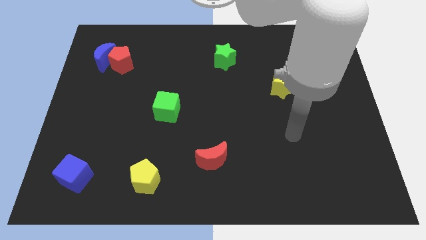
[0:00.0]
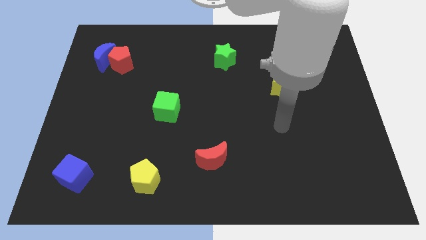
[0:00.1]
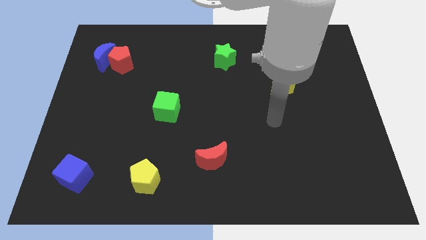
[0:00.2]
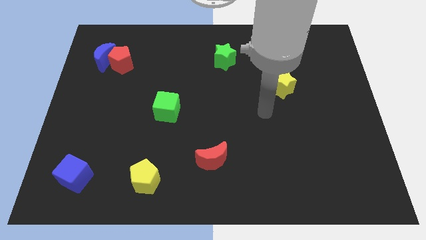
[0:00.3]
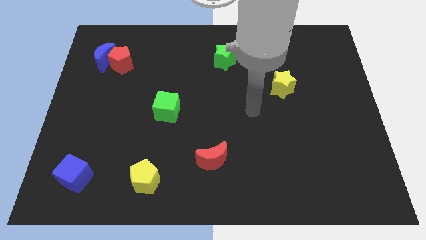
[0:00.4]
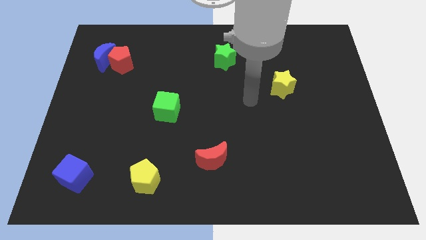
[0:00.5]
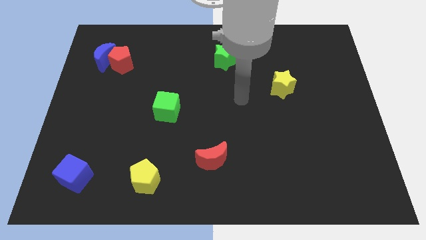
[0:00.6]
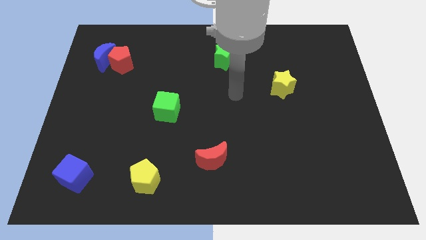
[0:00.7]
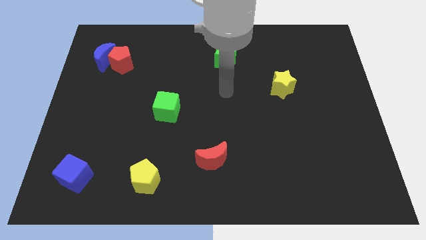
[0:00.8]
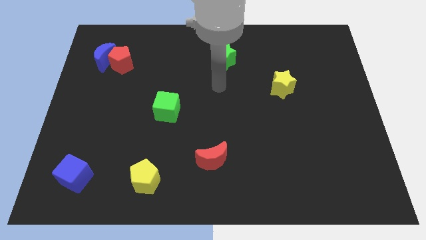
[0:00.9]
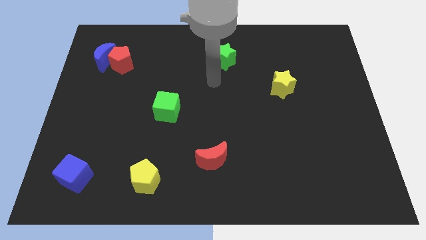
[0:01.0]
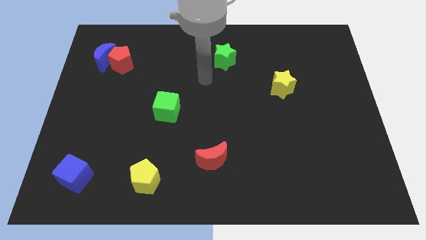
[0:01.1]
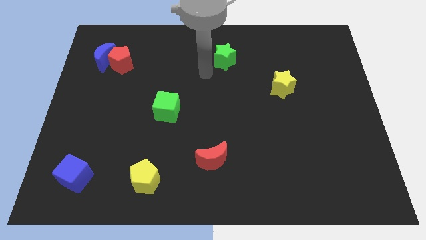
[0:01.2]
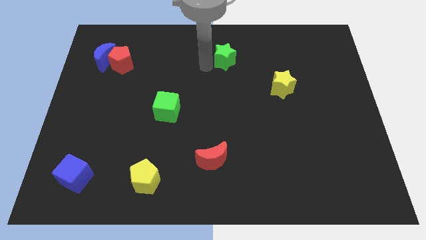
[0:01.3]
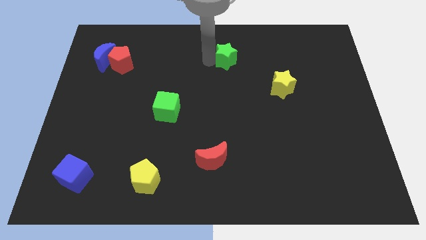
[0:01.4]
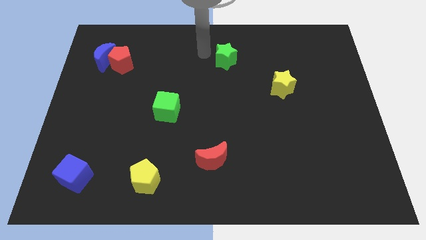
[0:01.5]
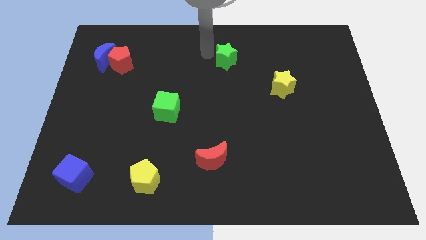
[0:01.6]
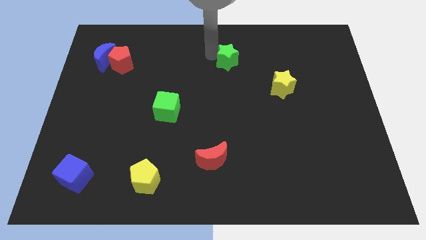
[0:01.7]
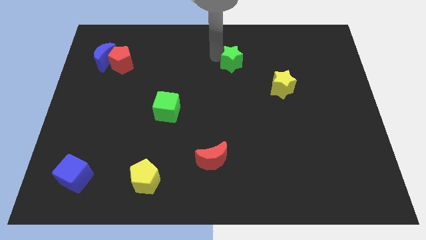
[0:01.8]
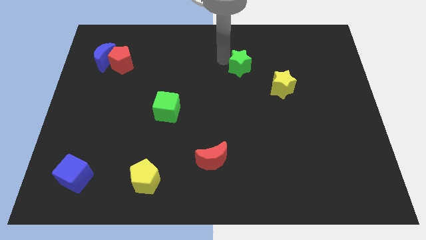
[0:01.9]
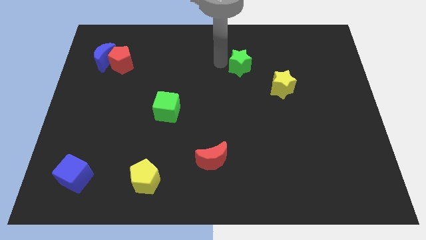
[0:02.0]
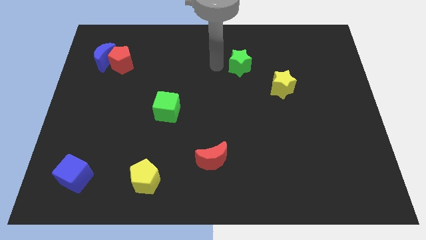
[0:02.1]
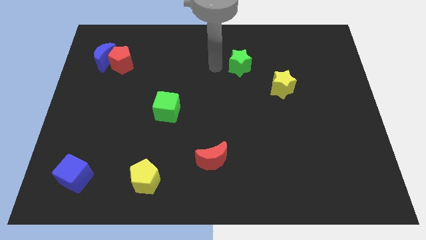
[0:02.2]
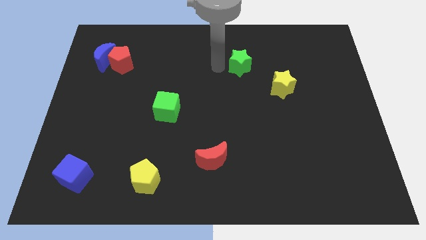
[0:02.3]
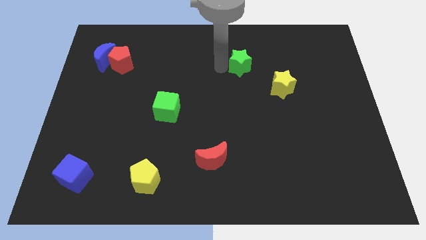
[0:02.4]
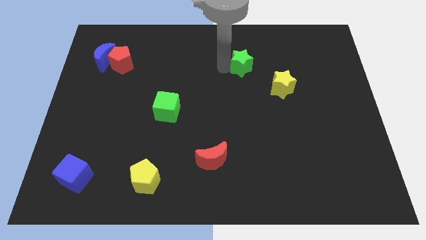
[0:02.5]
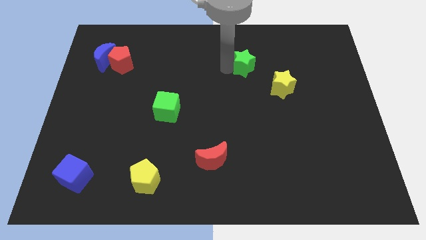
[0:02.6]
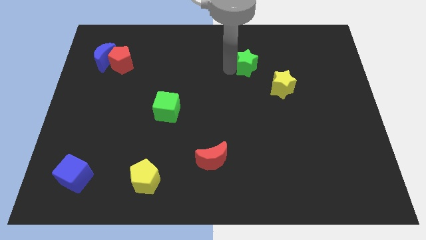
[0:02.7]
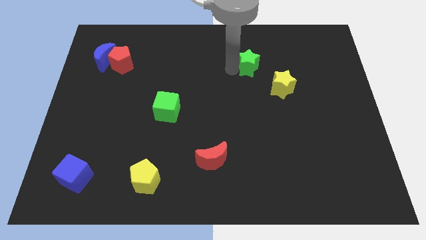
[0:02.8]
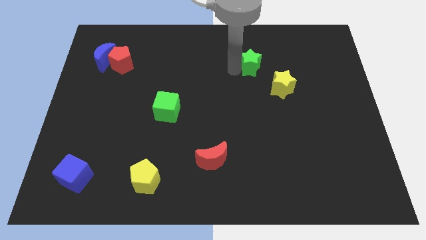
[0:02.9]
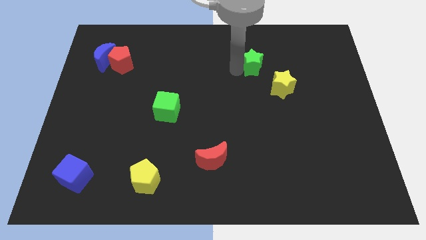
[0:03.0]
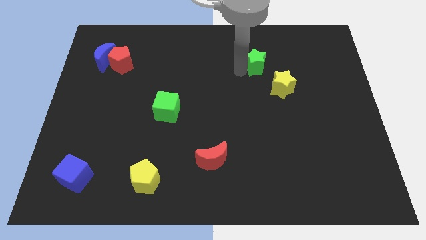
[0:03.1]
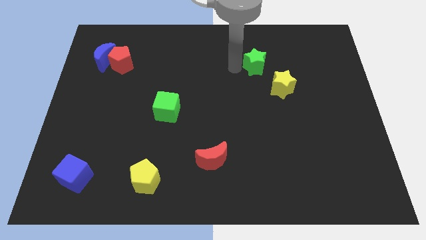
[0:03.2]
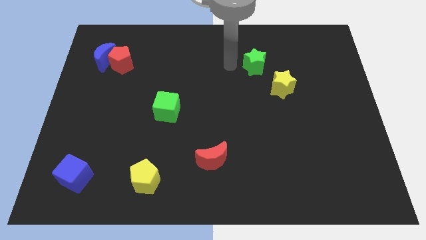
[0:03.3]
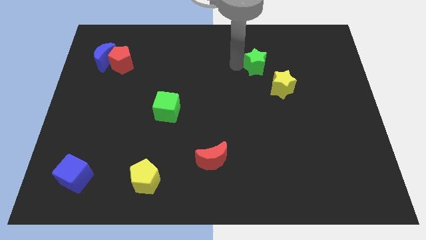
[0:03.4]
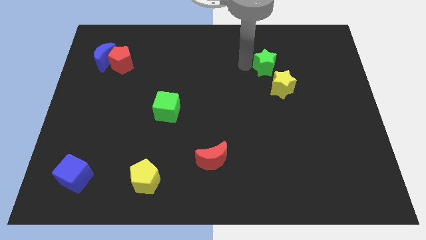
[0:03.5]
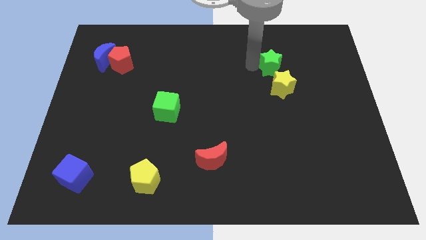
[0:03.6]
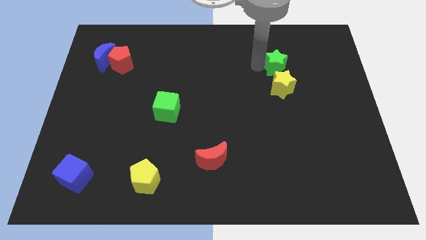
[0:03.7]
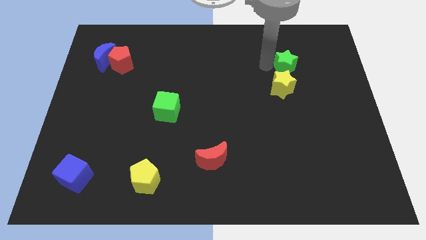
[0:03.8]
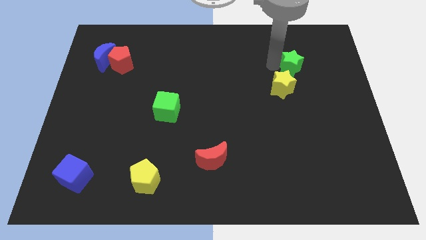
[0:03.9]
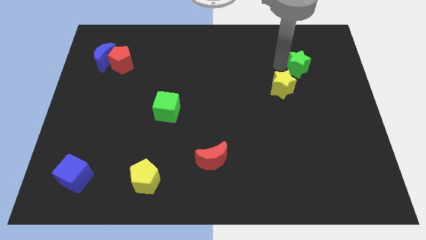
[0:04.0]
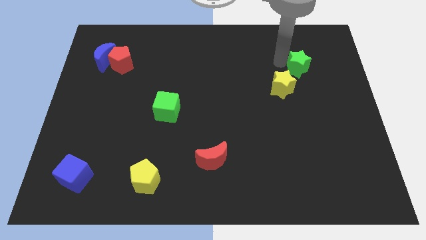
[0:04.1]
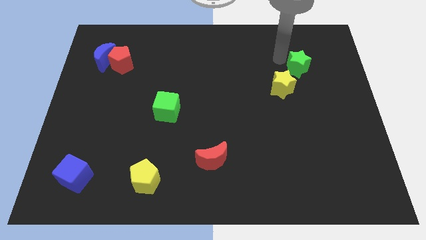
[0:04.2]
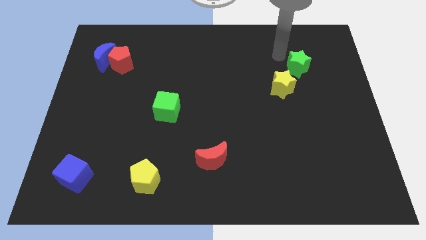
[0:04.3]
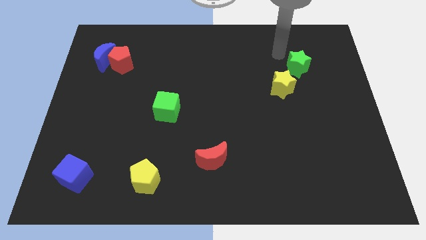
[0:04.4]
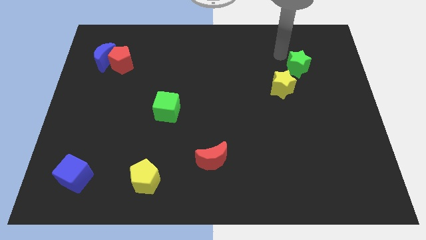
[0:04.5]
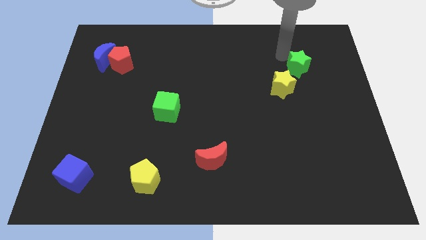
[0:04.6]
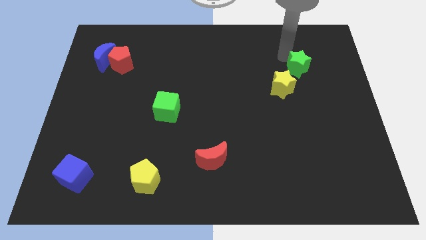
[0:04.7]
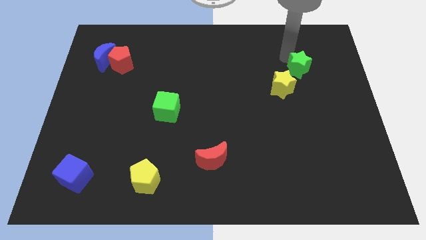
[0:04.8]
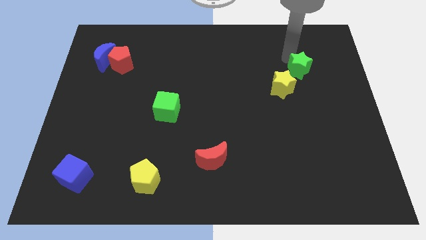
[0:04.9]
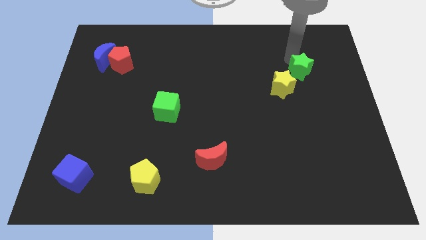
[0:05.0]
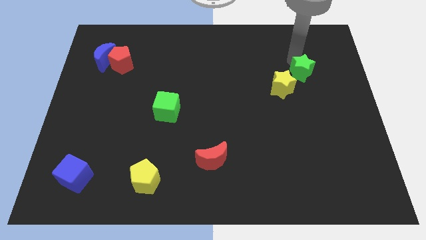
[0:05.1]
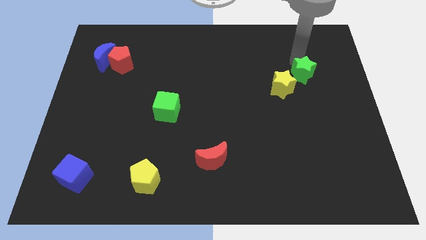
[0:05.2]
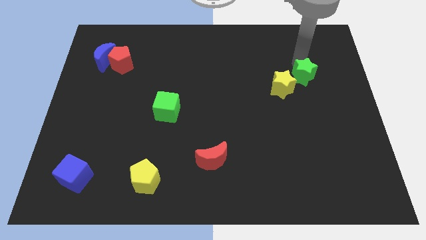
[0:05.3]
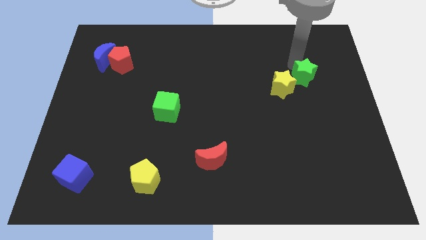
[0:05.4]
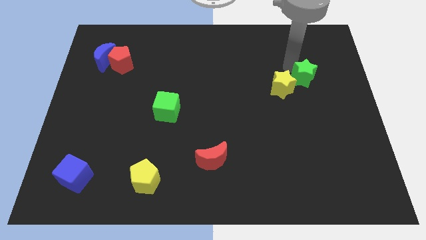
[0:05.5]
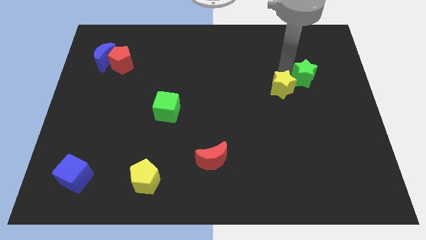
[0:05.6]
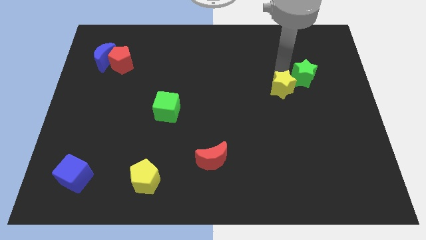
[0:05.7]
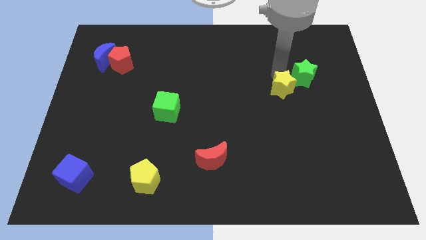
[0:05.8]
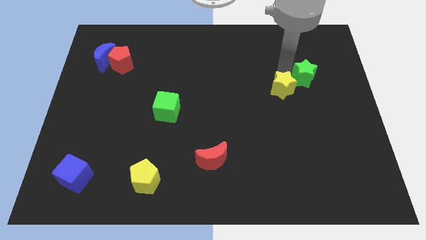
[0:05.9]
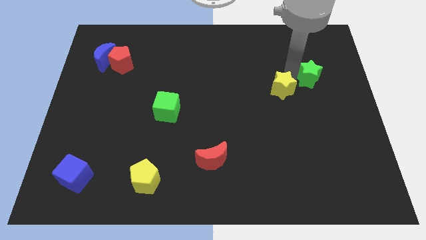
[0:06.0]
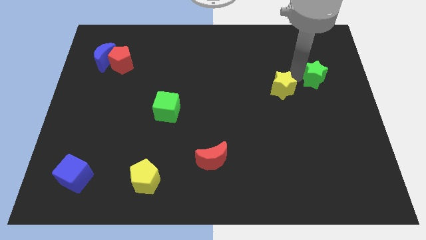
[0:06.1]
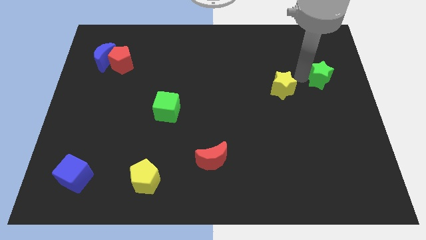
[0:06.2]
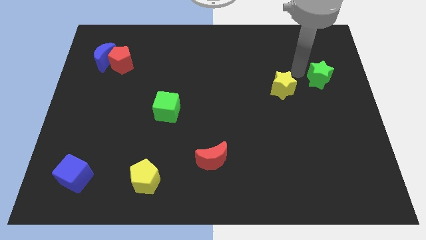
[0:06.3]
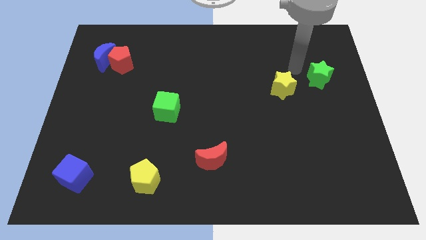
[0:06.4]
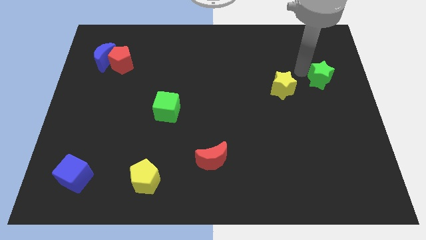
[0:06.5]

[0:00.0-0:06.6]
move the green star to the right side of the board
